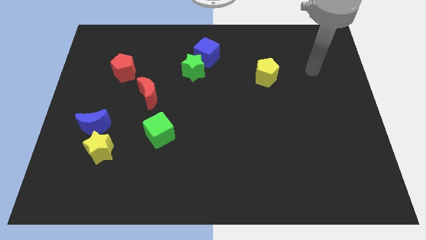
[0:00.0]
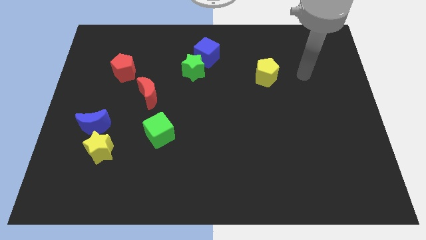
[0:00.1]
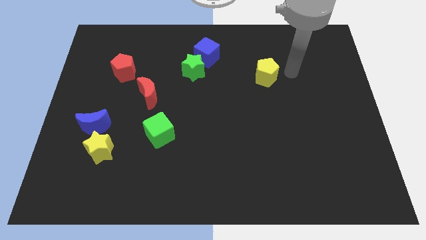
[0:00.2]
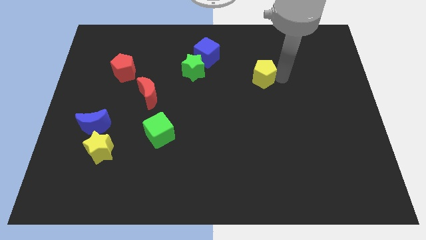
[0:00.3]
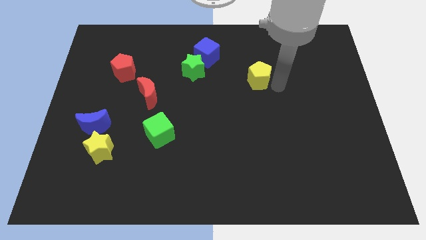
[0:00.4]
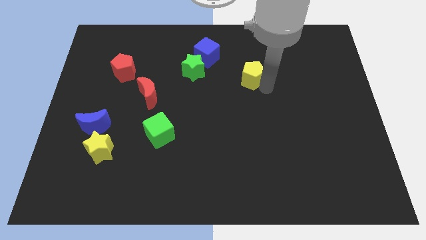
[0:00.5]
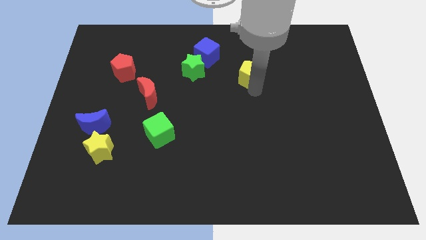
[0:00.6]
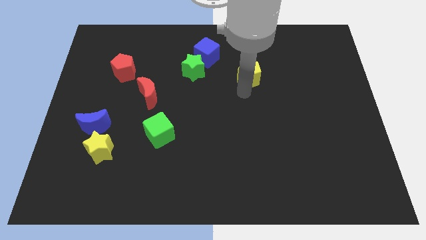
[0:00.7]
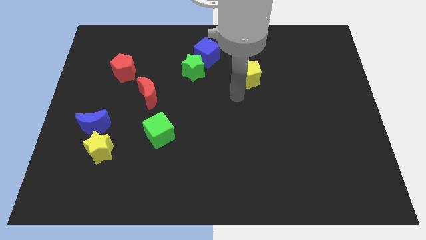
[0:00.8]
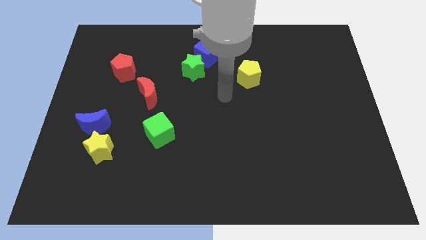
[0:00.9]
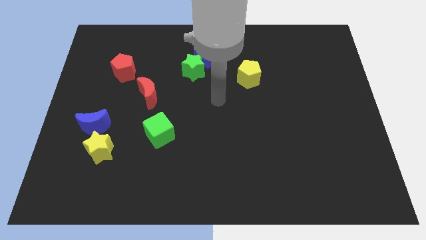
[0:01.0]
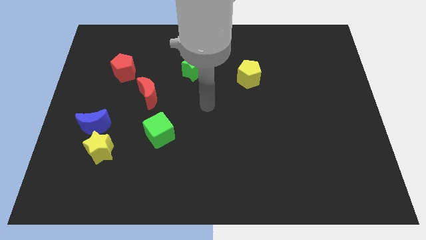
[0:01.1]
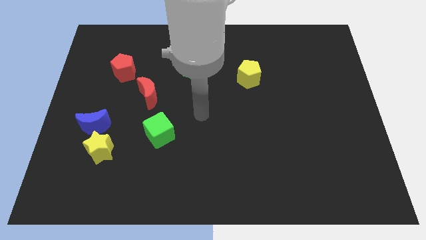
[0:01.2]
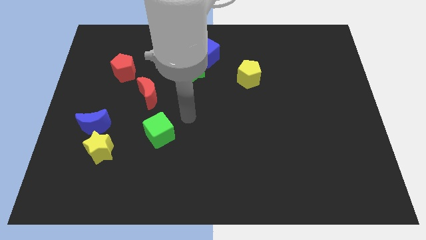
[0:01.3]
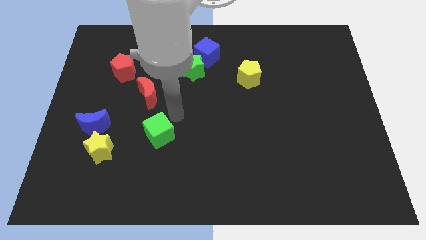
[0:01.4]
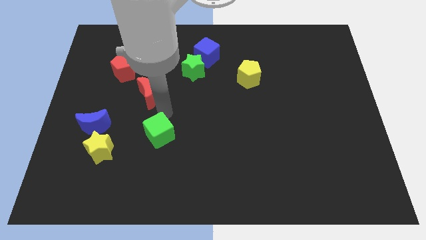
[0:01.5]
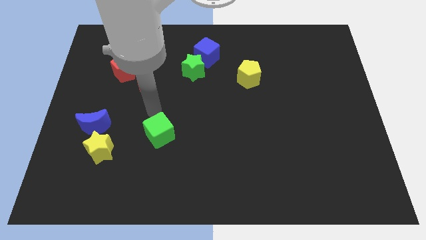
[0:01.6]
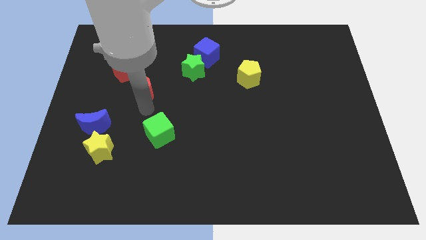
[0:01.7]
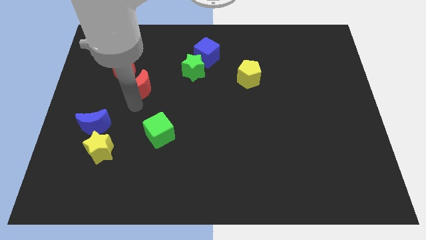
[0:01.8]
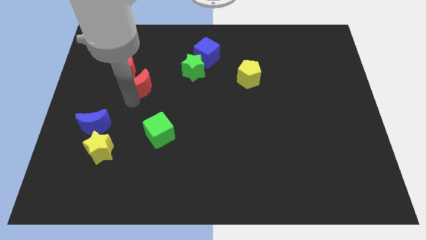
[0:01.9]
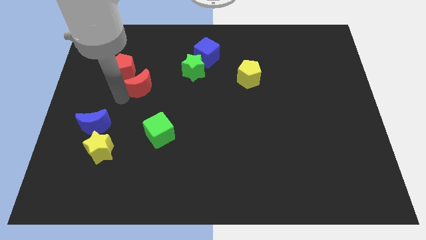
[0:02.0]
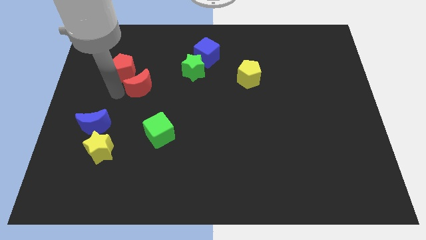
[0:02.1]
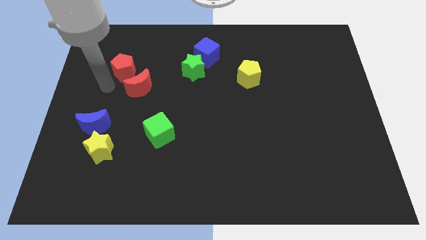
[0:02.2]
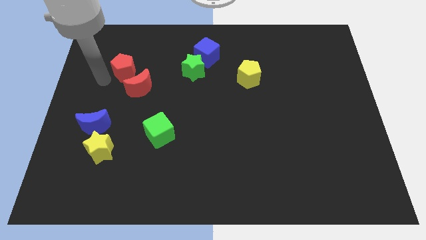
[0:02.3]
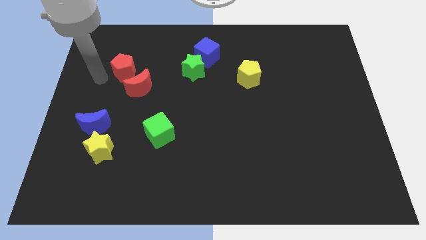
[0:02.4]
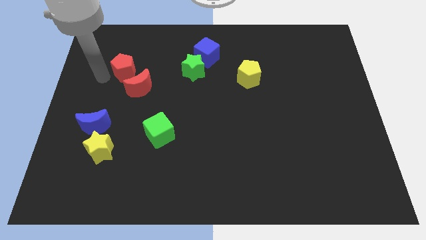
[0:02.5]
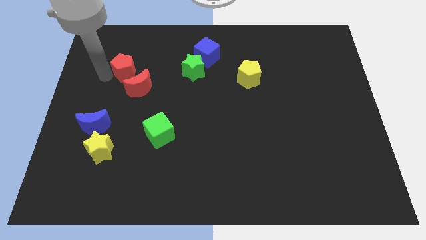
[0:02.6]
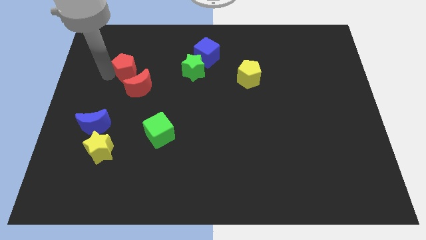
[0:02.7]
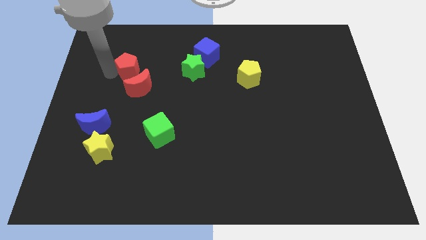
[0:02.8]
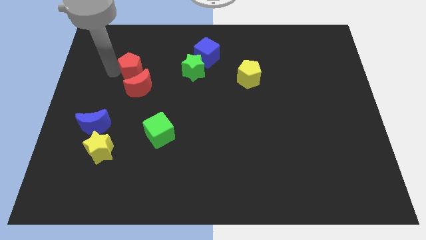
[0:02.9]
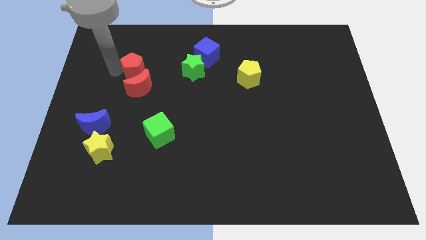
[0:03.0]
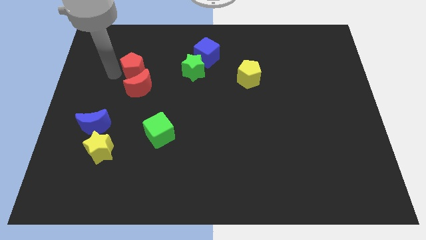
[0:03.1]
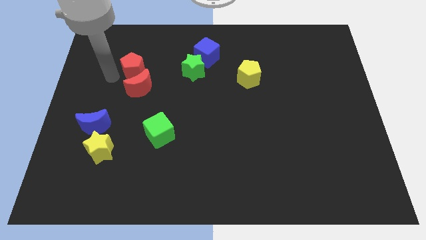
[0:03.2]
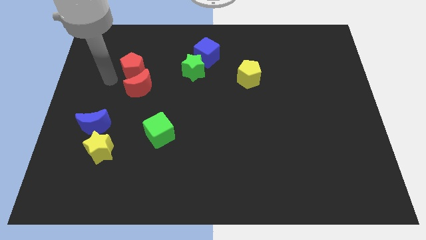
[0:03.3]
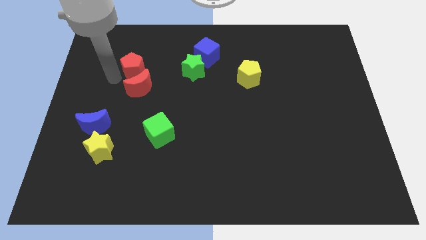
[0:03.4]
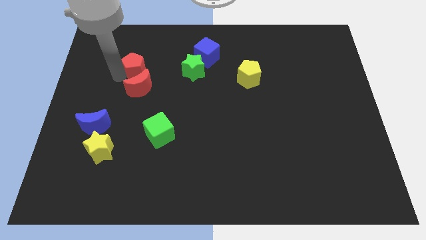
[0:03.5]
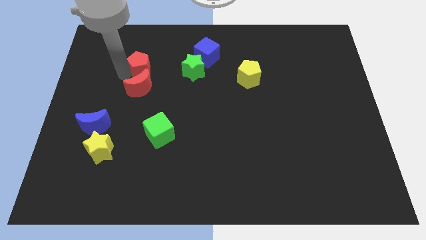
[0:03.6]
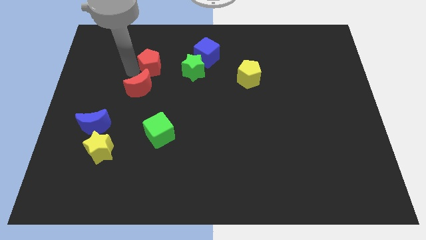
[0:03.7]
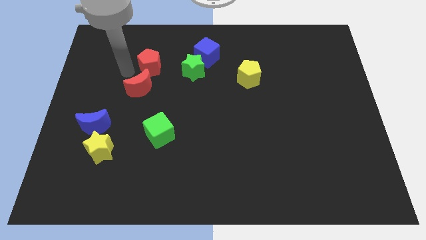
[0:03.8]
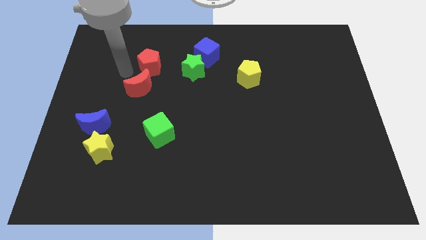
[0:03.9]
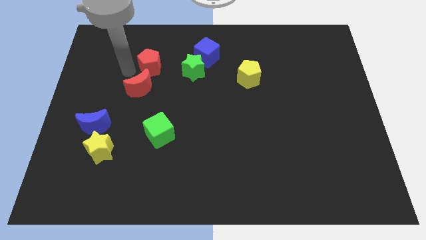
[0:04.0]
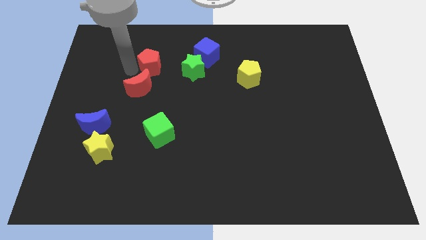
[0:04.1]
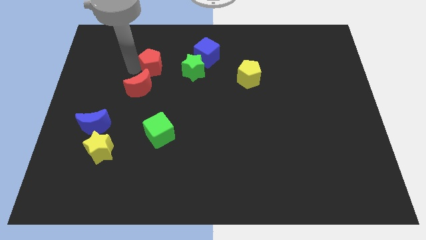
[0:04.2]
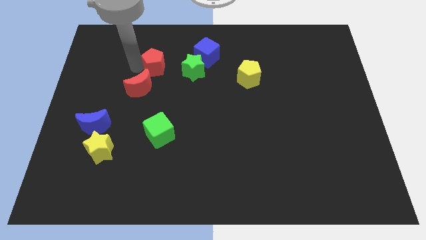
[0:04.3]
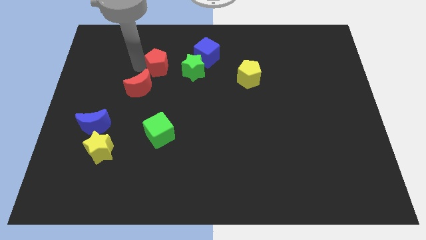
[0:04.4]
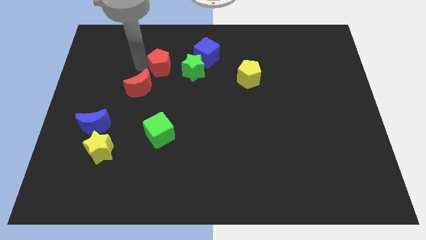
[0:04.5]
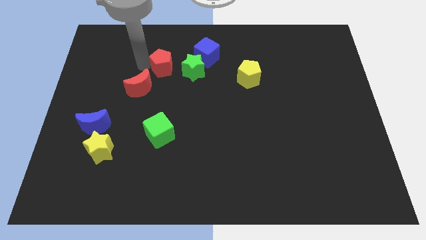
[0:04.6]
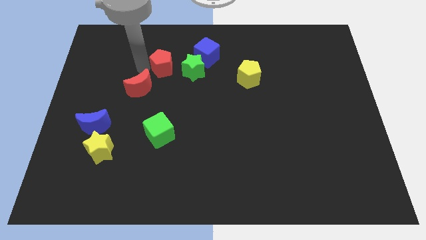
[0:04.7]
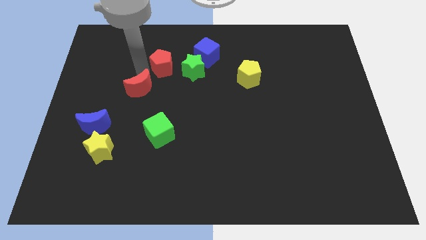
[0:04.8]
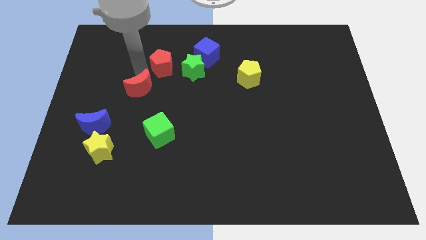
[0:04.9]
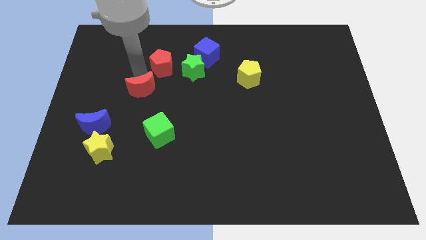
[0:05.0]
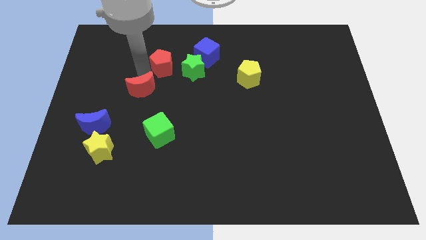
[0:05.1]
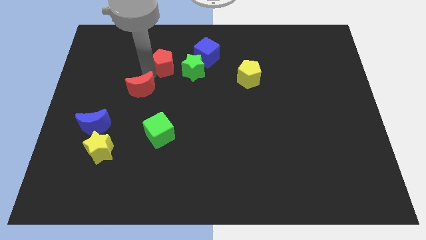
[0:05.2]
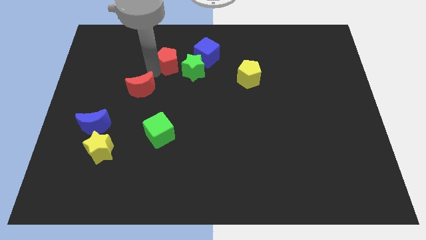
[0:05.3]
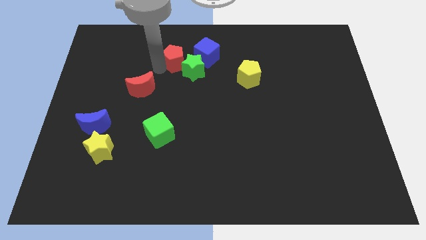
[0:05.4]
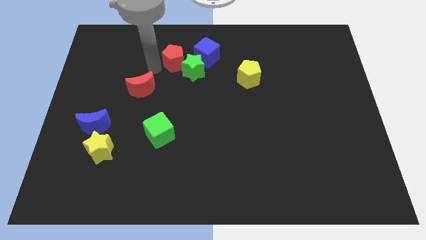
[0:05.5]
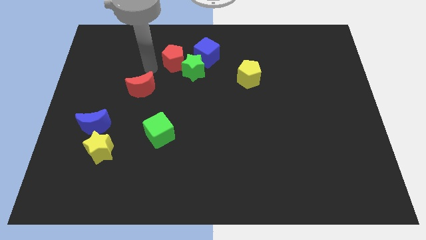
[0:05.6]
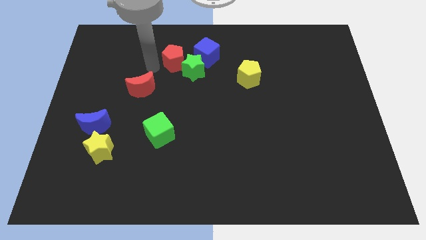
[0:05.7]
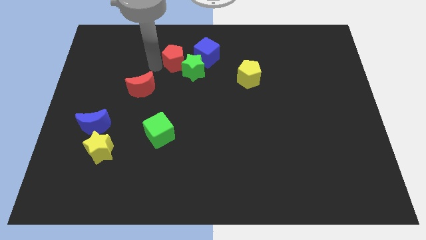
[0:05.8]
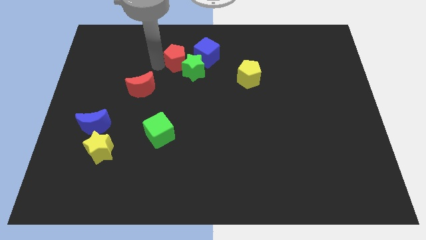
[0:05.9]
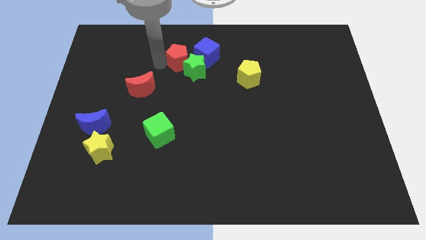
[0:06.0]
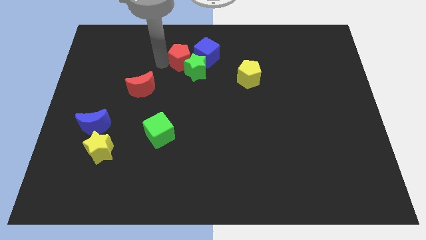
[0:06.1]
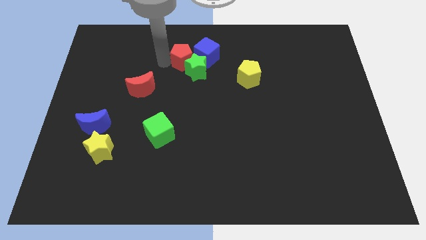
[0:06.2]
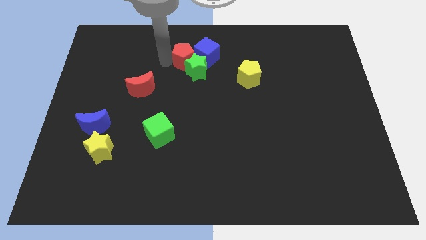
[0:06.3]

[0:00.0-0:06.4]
put the red pentagon towards the blue cube

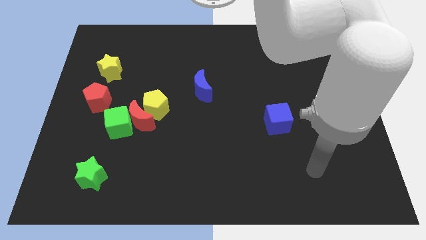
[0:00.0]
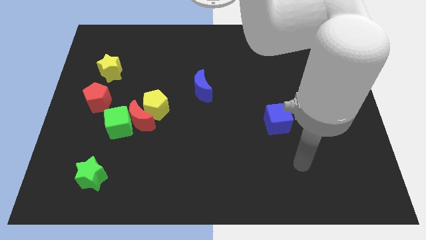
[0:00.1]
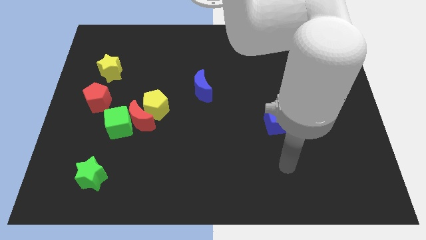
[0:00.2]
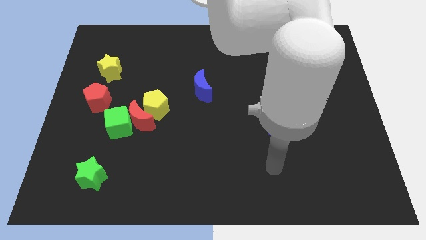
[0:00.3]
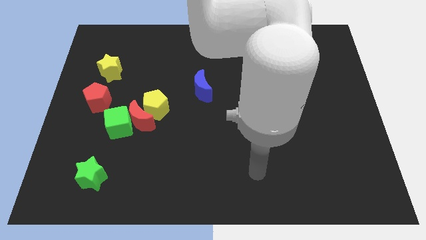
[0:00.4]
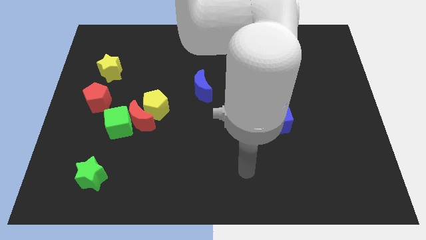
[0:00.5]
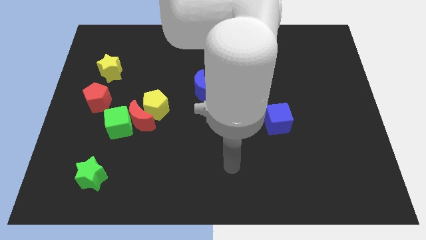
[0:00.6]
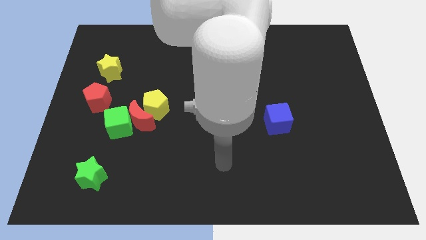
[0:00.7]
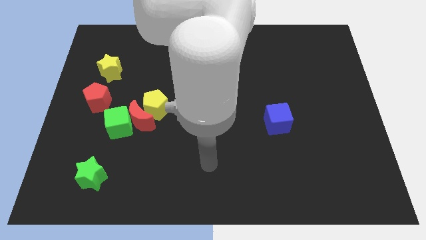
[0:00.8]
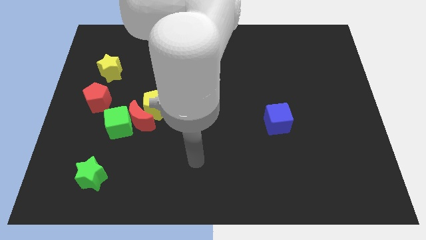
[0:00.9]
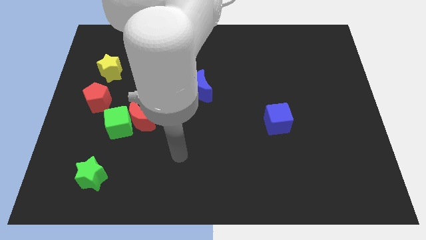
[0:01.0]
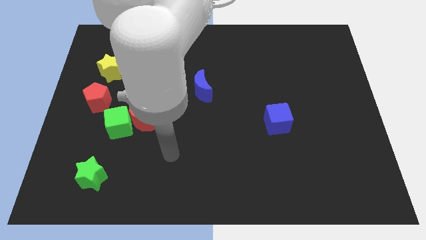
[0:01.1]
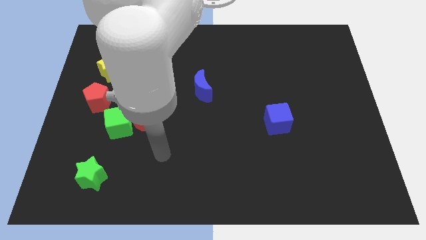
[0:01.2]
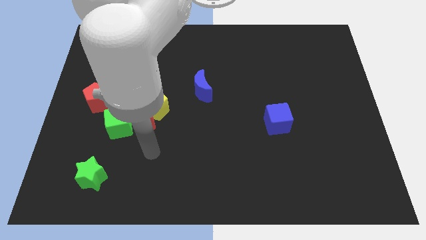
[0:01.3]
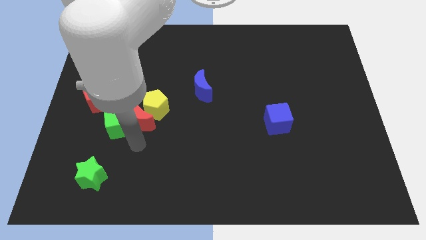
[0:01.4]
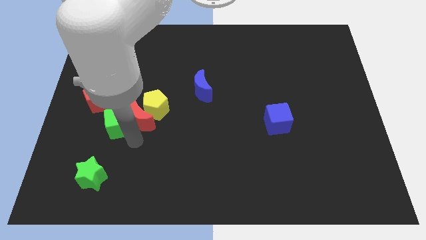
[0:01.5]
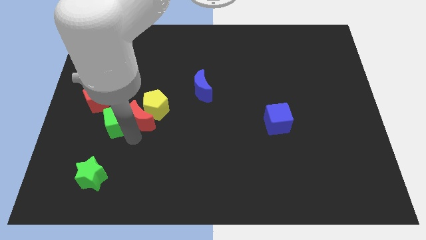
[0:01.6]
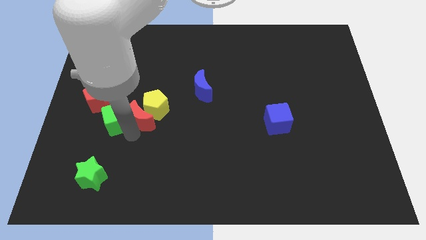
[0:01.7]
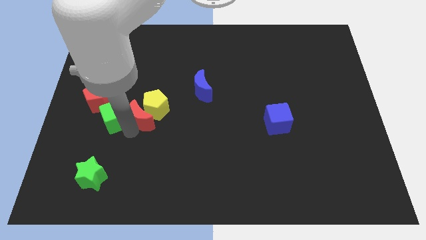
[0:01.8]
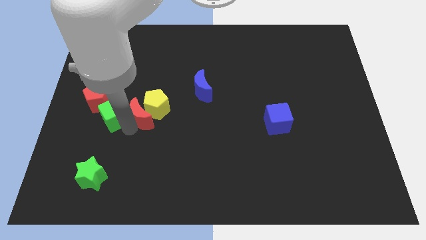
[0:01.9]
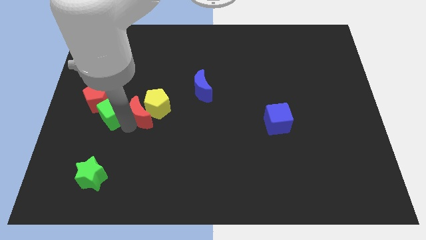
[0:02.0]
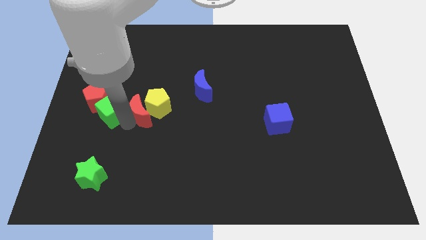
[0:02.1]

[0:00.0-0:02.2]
slide the green cube close to the red pentagon
